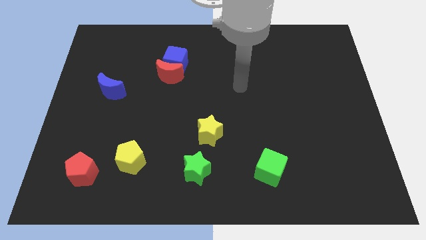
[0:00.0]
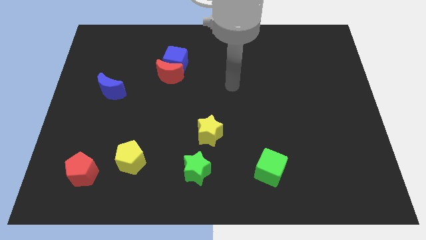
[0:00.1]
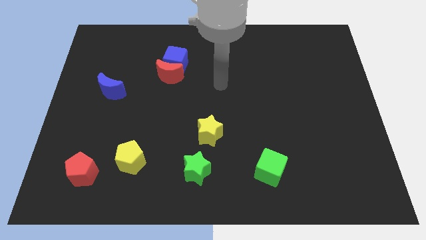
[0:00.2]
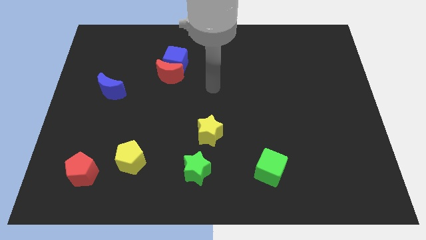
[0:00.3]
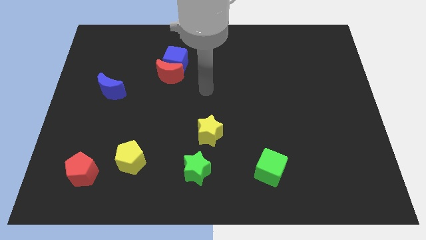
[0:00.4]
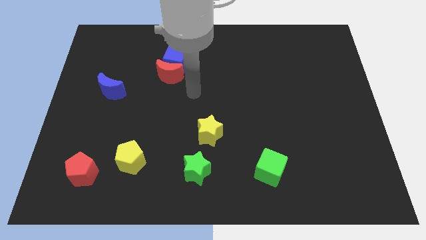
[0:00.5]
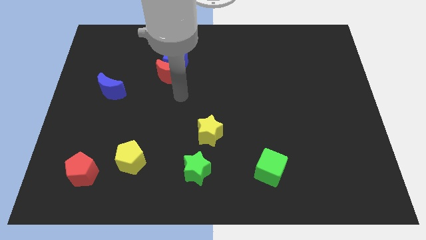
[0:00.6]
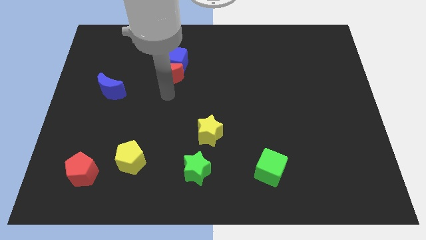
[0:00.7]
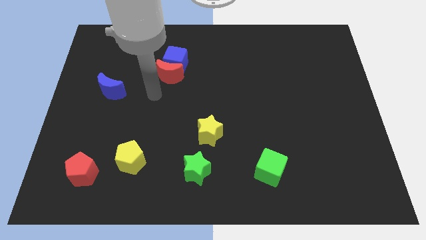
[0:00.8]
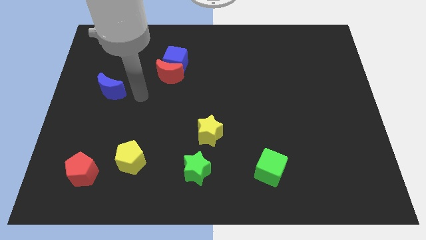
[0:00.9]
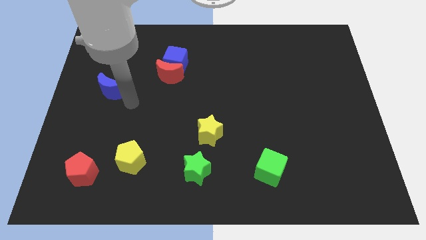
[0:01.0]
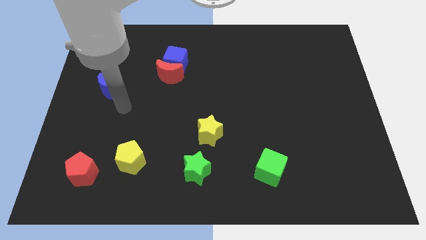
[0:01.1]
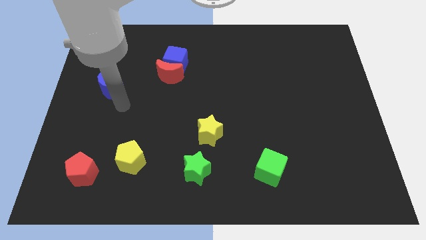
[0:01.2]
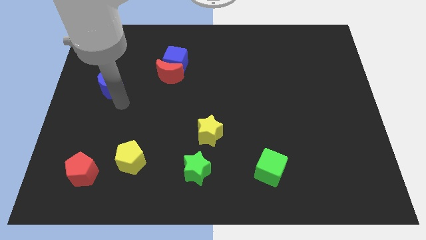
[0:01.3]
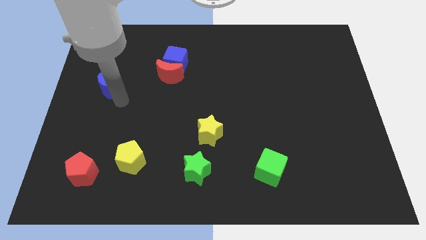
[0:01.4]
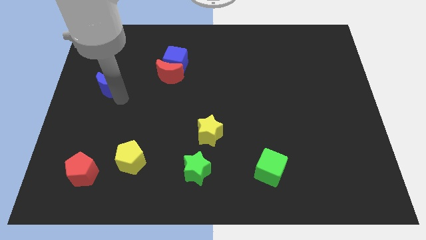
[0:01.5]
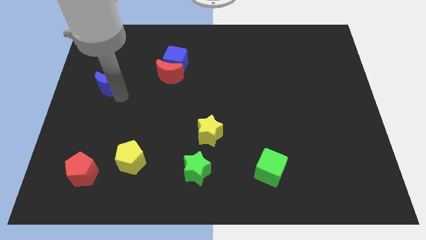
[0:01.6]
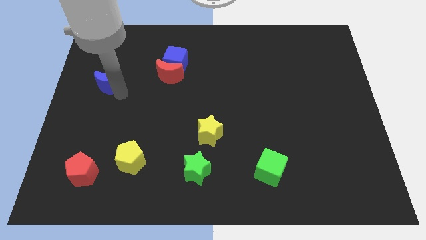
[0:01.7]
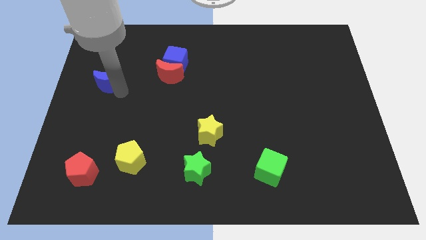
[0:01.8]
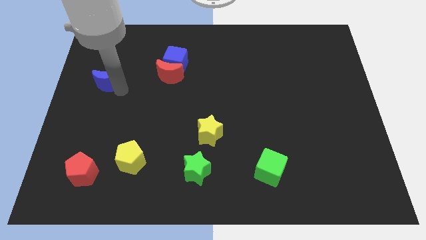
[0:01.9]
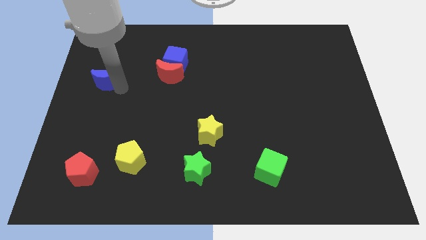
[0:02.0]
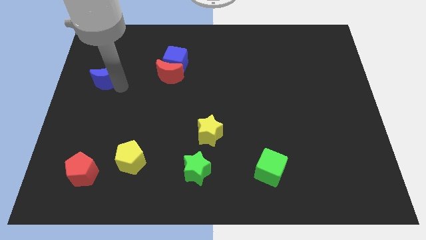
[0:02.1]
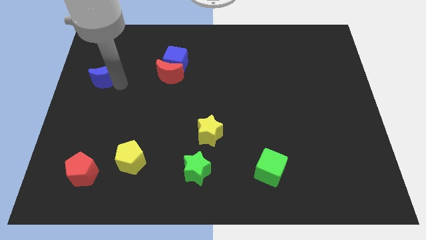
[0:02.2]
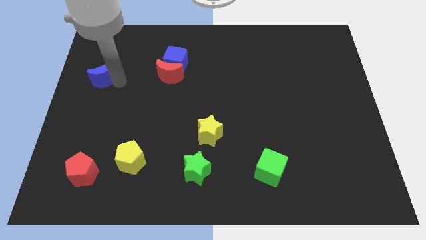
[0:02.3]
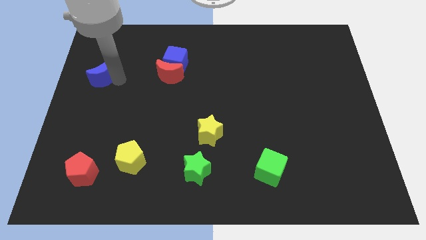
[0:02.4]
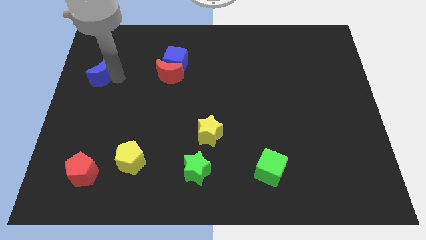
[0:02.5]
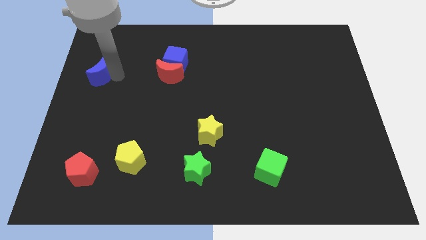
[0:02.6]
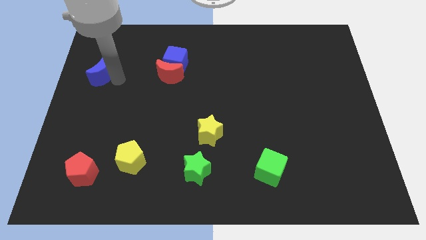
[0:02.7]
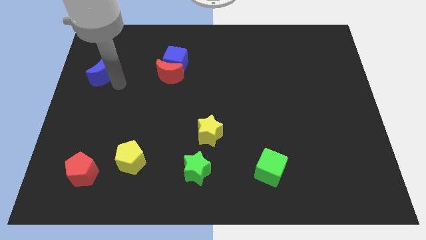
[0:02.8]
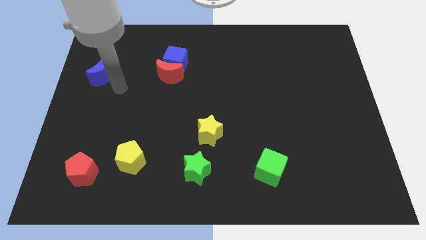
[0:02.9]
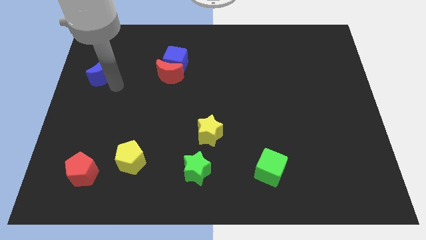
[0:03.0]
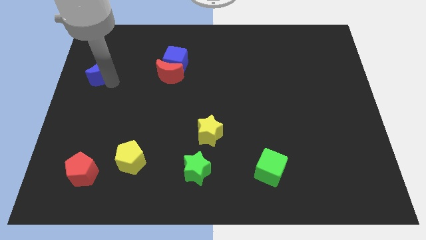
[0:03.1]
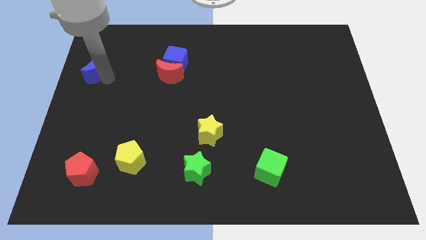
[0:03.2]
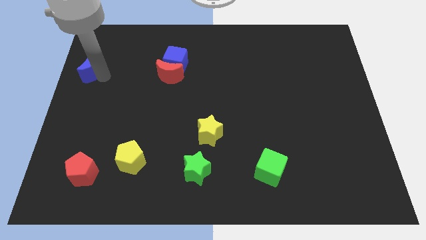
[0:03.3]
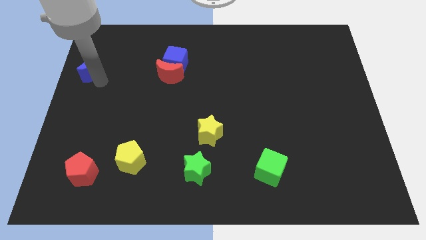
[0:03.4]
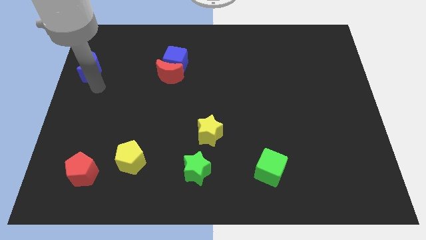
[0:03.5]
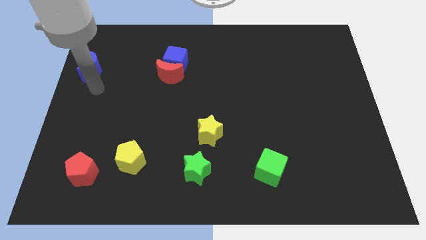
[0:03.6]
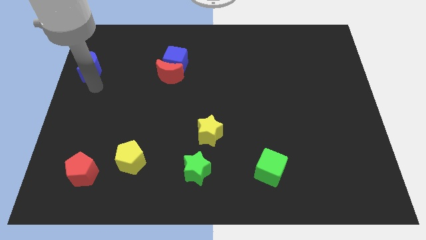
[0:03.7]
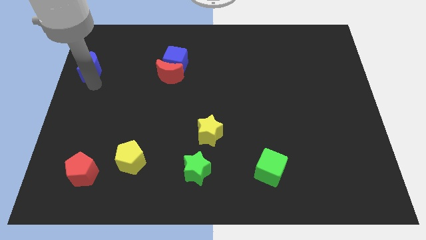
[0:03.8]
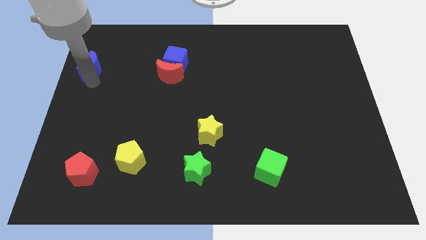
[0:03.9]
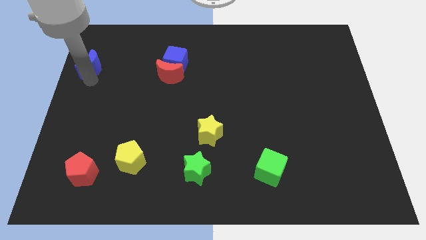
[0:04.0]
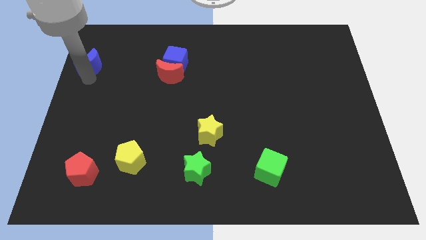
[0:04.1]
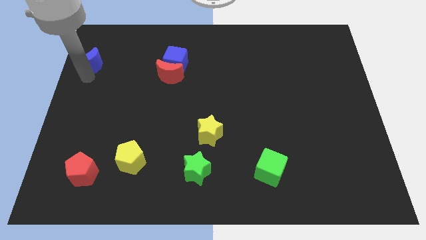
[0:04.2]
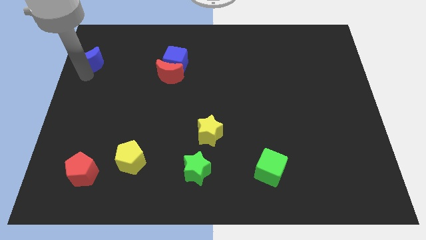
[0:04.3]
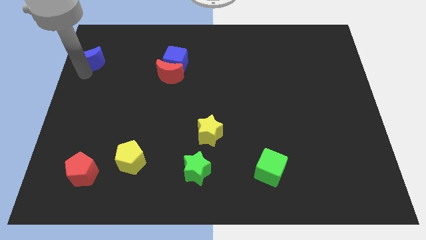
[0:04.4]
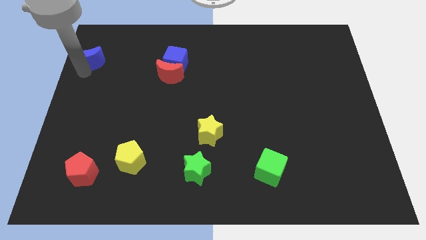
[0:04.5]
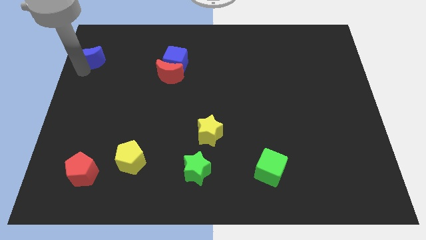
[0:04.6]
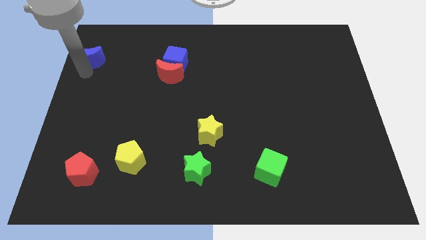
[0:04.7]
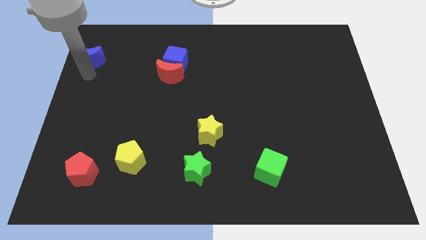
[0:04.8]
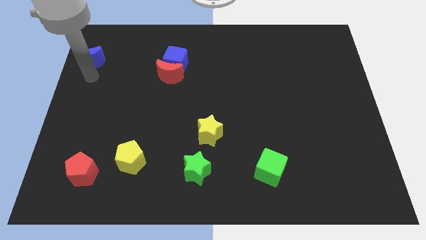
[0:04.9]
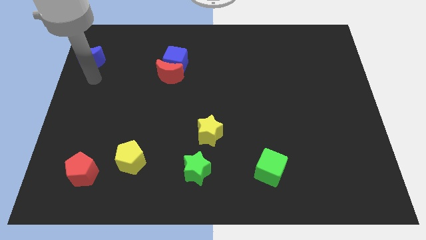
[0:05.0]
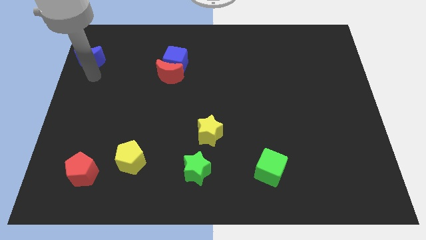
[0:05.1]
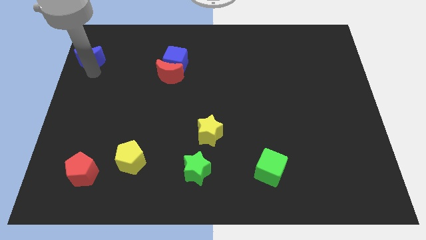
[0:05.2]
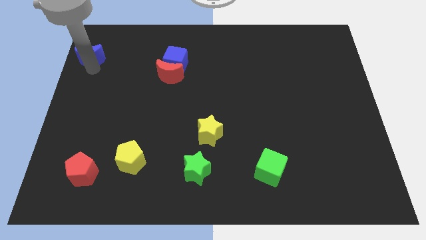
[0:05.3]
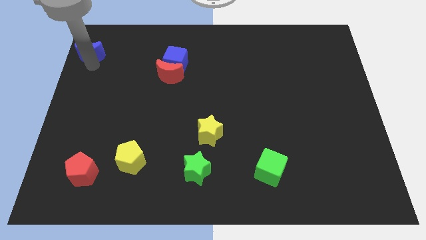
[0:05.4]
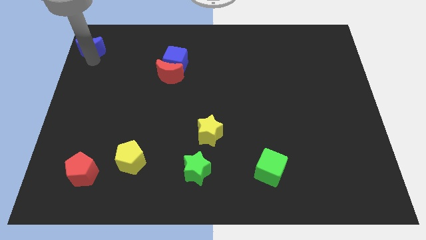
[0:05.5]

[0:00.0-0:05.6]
put the blue moon to the upper left corner
